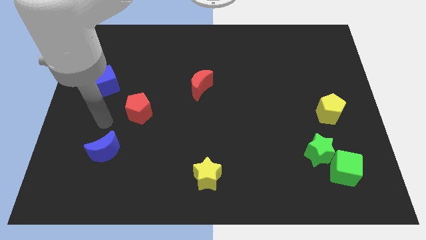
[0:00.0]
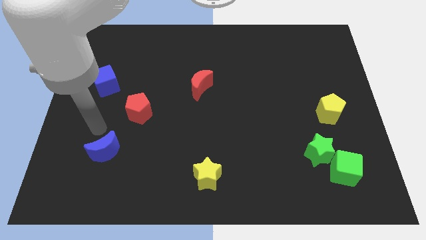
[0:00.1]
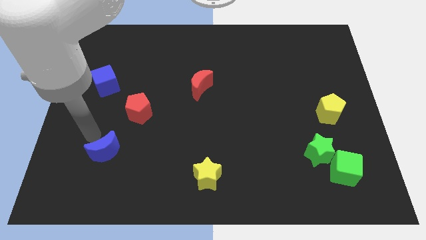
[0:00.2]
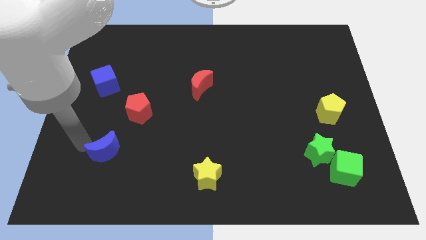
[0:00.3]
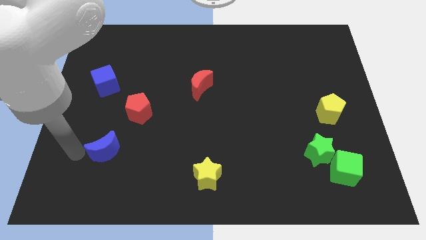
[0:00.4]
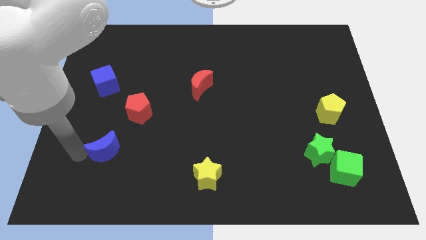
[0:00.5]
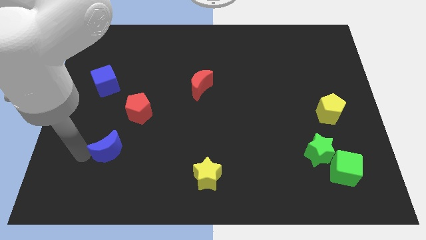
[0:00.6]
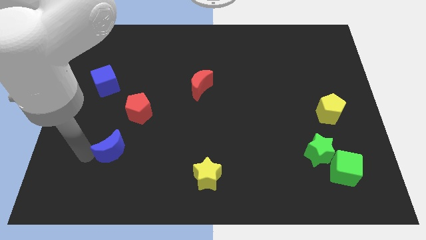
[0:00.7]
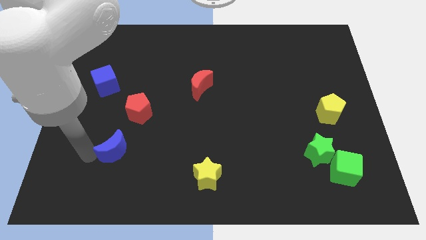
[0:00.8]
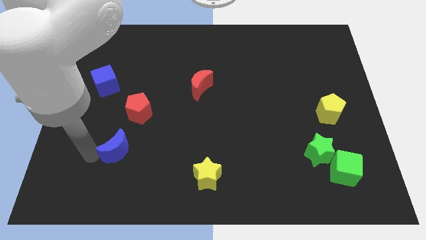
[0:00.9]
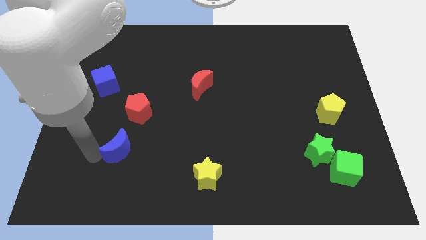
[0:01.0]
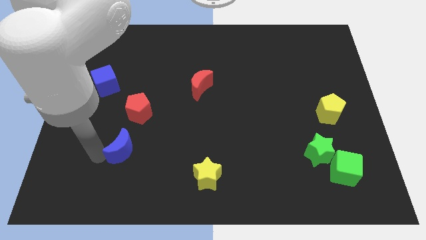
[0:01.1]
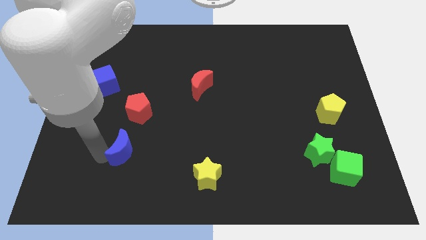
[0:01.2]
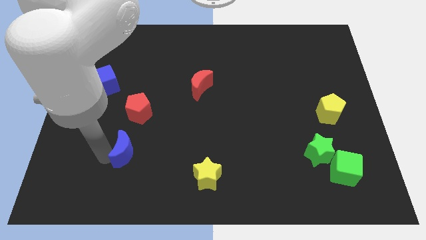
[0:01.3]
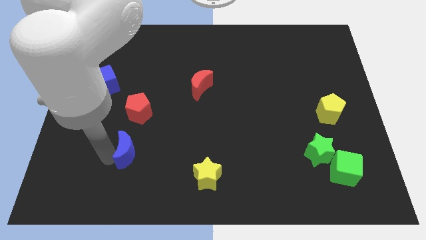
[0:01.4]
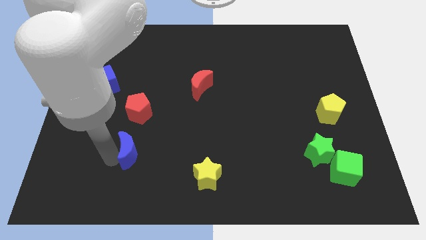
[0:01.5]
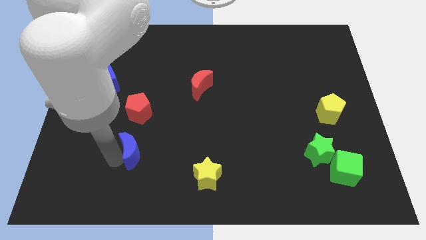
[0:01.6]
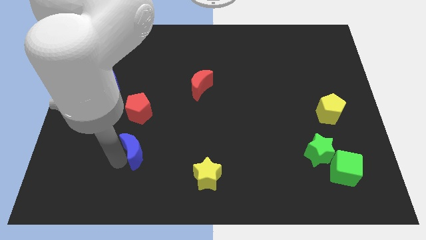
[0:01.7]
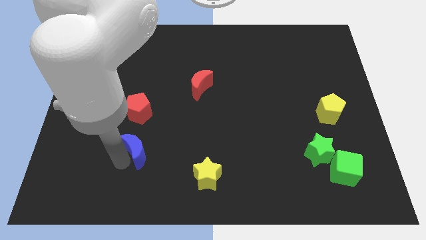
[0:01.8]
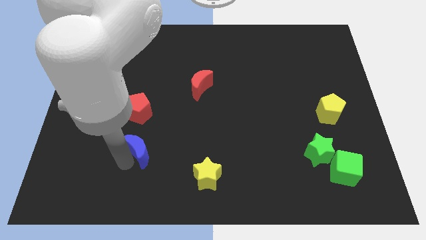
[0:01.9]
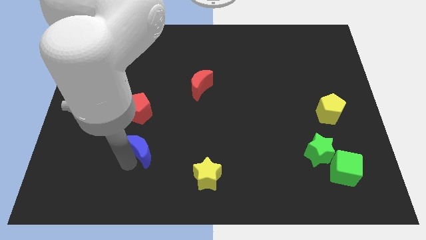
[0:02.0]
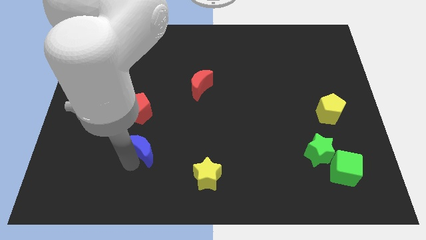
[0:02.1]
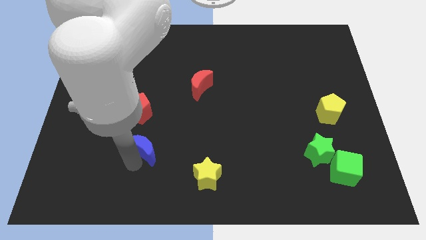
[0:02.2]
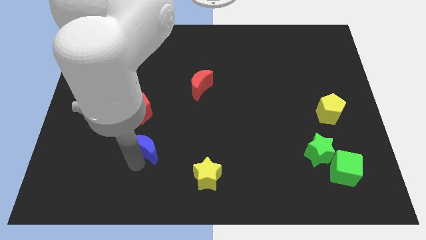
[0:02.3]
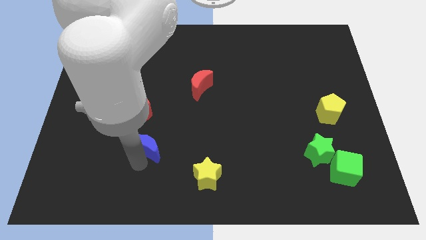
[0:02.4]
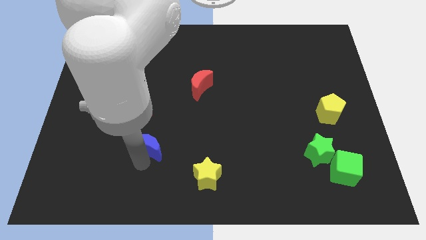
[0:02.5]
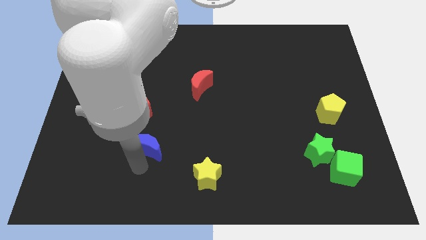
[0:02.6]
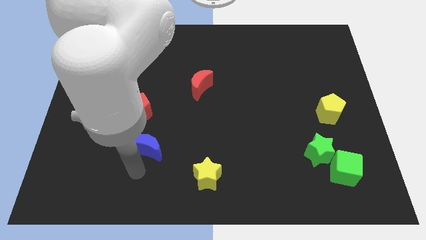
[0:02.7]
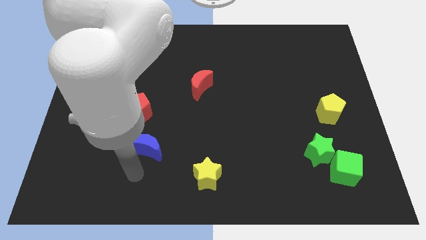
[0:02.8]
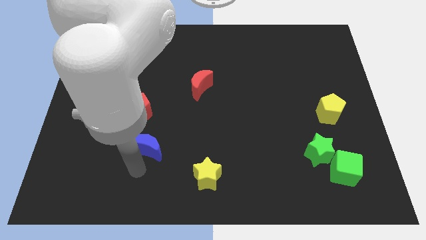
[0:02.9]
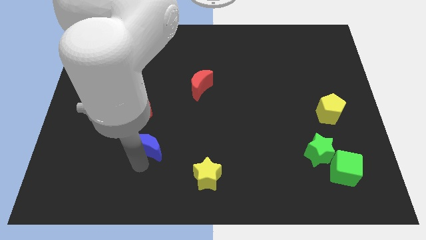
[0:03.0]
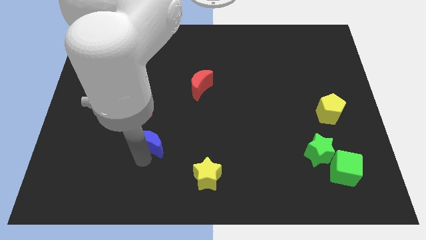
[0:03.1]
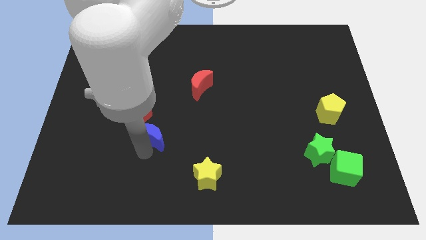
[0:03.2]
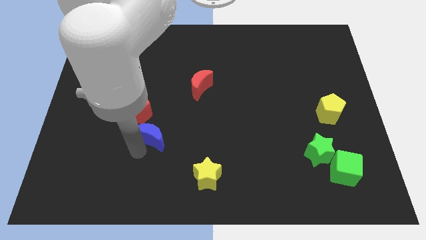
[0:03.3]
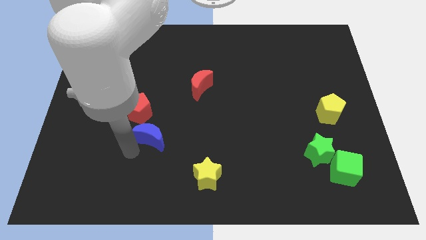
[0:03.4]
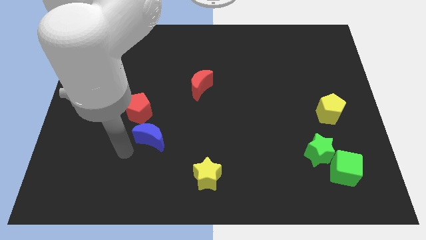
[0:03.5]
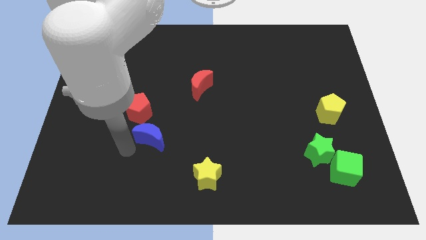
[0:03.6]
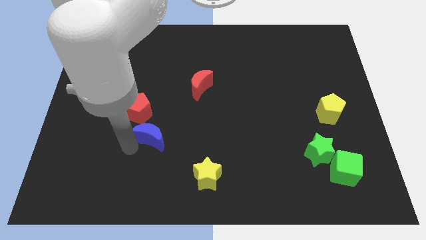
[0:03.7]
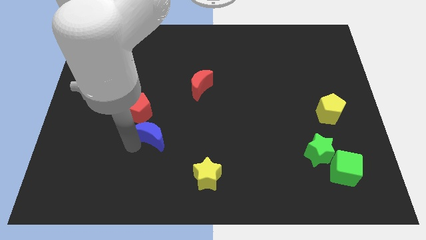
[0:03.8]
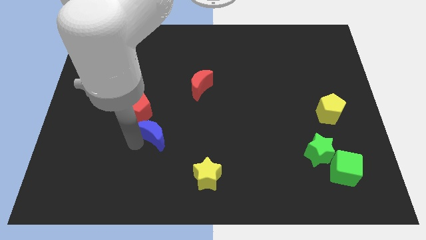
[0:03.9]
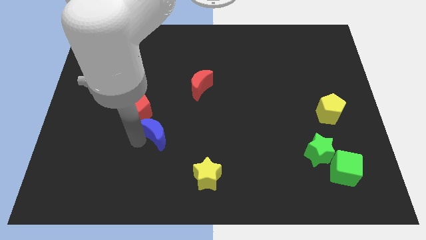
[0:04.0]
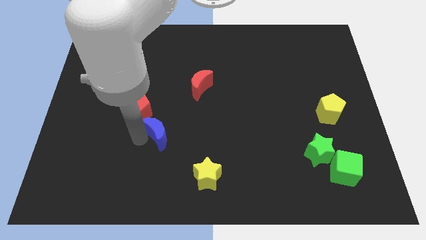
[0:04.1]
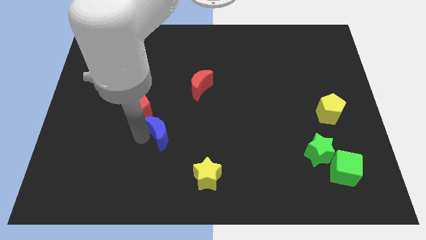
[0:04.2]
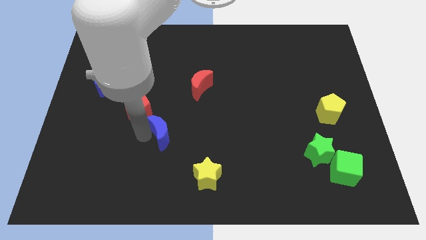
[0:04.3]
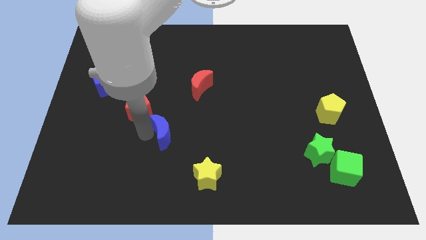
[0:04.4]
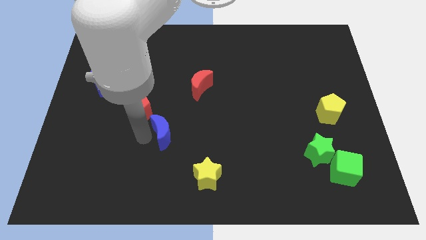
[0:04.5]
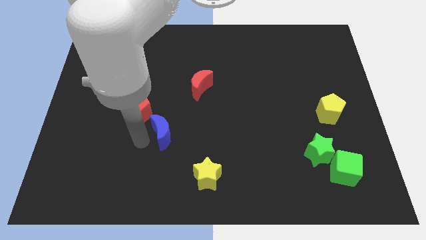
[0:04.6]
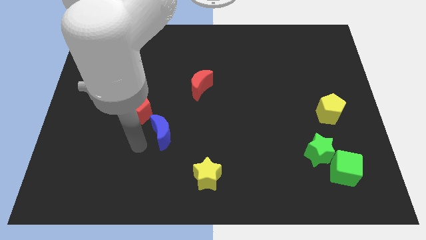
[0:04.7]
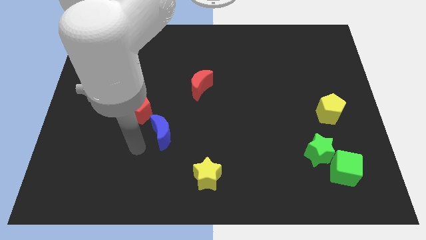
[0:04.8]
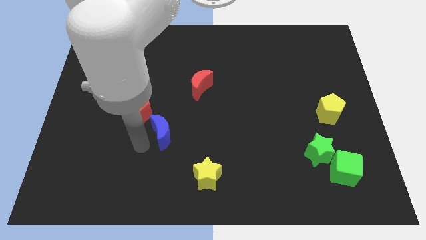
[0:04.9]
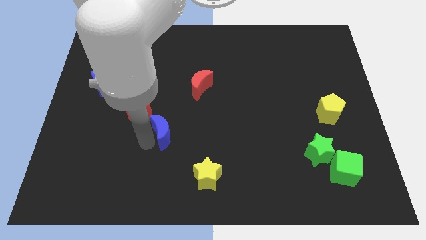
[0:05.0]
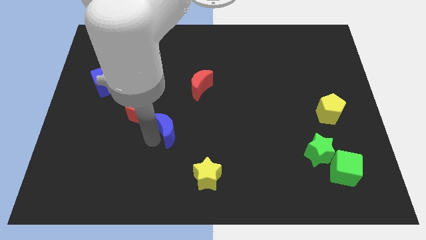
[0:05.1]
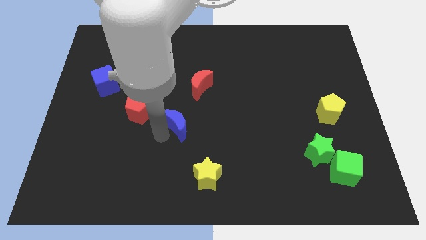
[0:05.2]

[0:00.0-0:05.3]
slide the blue moon to the middle

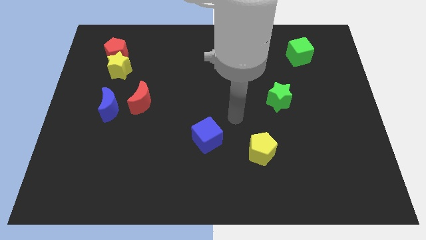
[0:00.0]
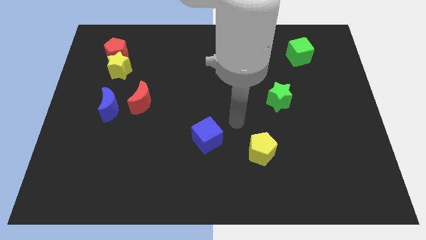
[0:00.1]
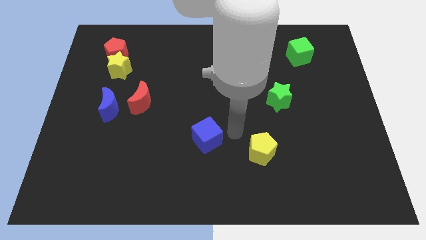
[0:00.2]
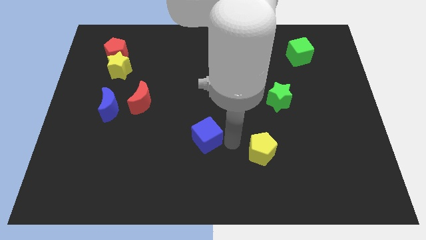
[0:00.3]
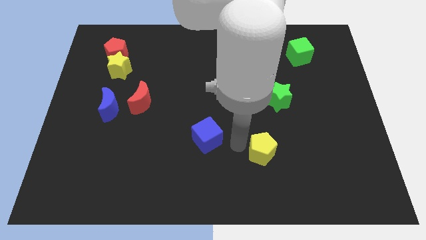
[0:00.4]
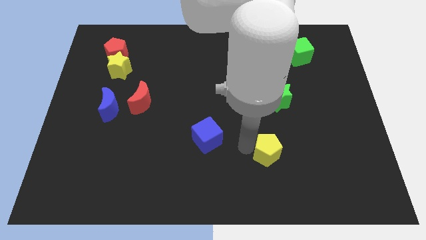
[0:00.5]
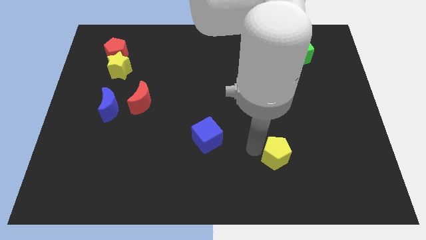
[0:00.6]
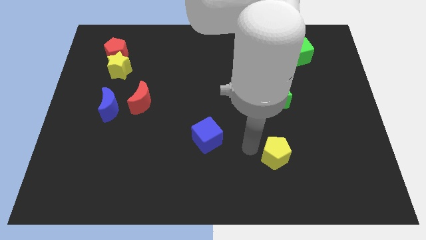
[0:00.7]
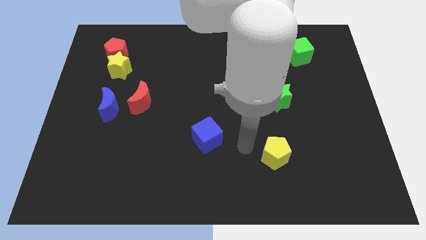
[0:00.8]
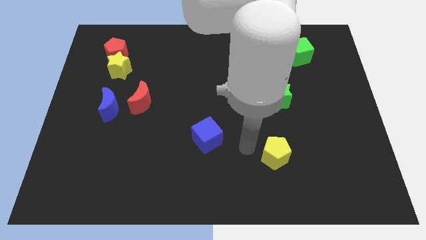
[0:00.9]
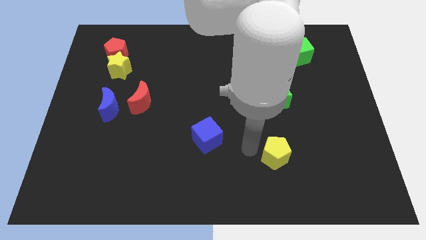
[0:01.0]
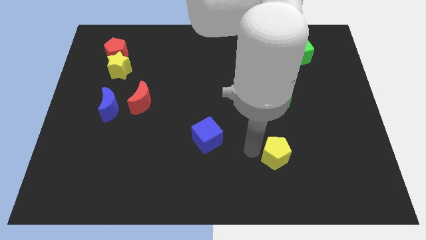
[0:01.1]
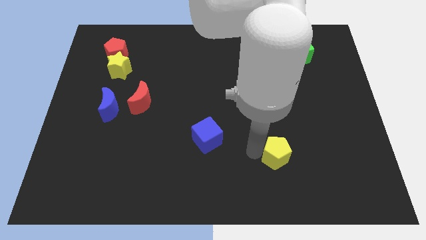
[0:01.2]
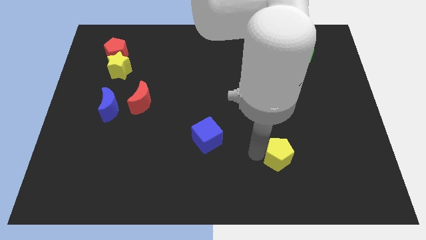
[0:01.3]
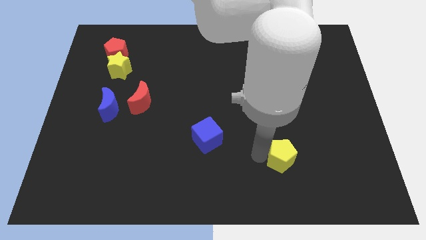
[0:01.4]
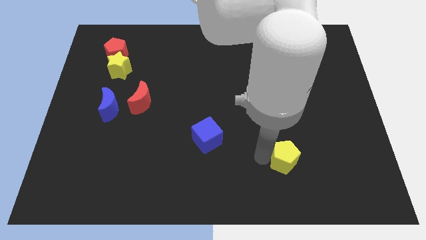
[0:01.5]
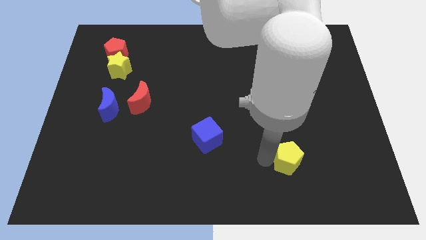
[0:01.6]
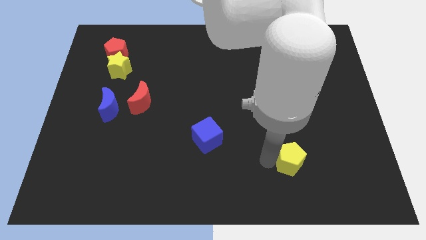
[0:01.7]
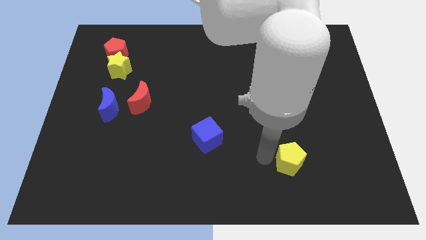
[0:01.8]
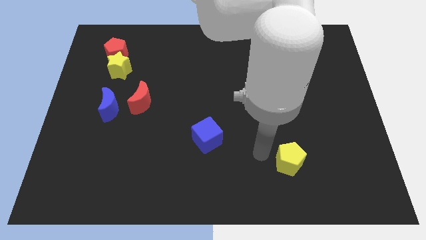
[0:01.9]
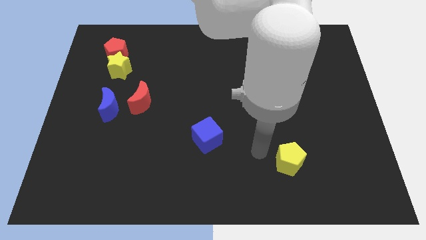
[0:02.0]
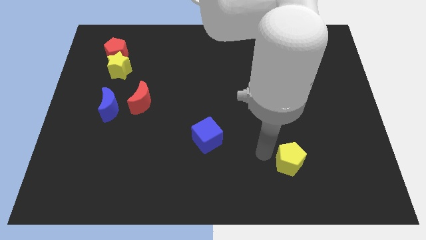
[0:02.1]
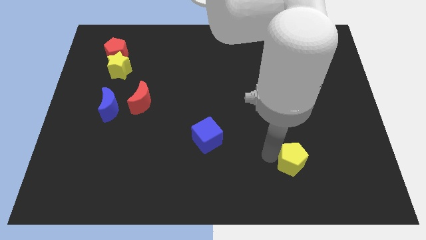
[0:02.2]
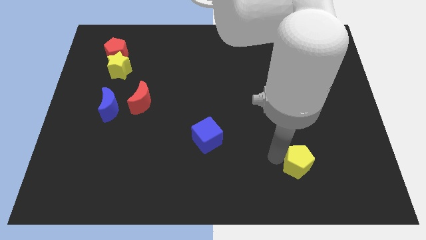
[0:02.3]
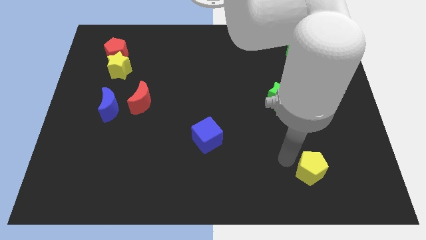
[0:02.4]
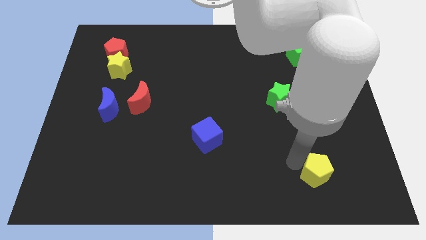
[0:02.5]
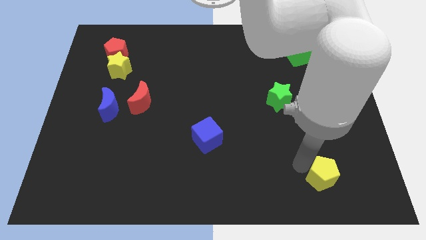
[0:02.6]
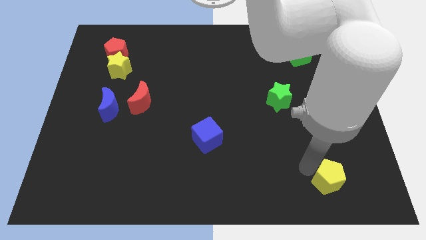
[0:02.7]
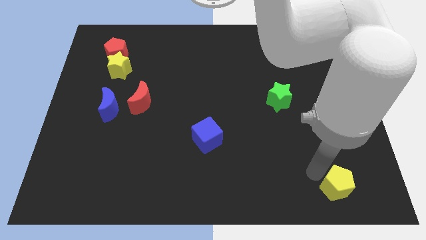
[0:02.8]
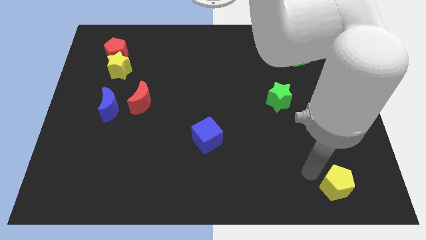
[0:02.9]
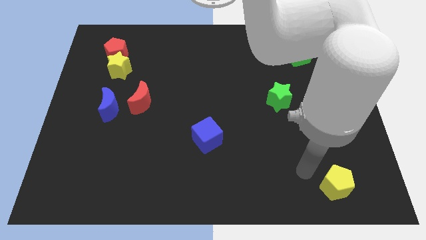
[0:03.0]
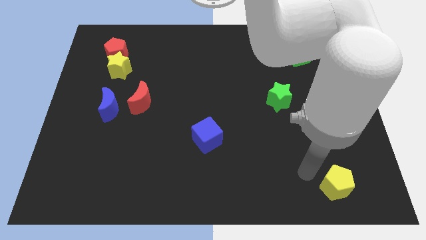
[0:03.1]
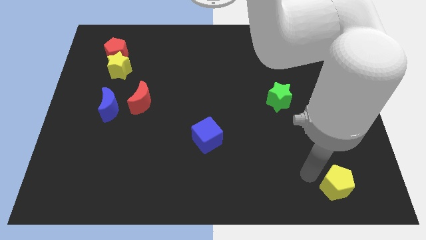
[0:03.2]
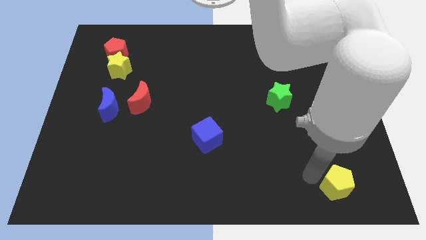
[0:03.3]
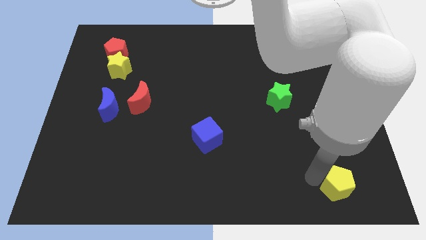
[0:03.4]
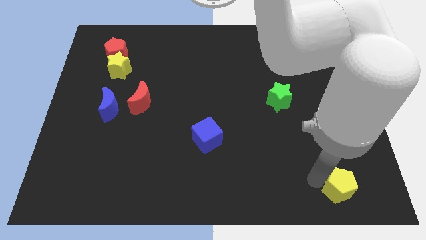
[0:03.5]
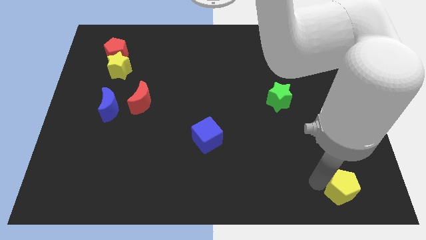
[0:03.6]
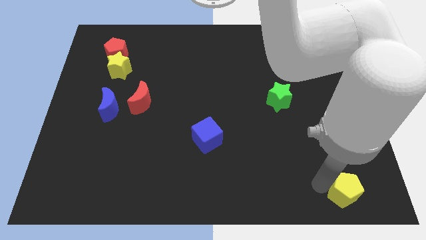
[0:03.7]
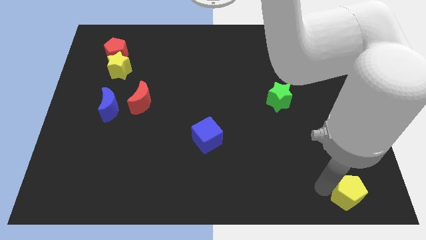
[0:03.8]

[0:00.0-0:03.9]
slide the yellow pentagon to the bottom right corner
